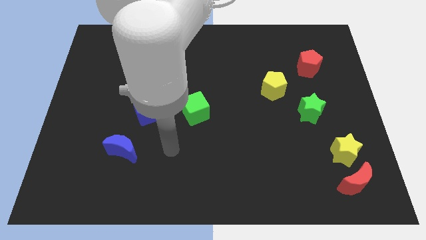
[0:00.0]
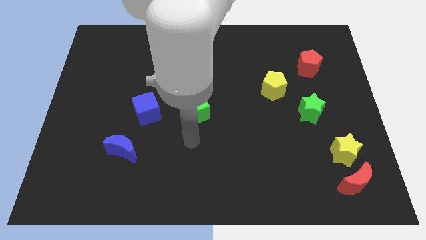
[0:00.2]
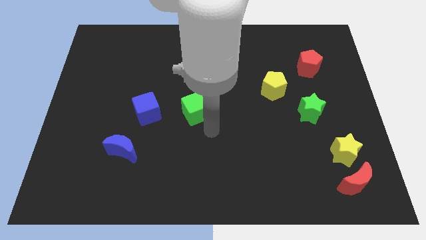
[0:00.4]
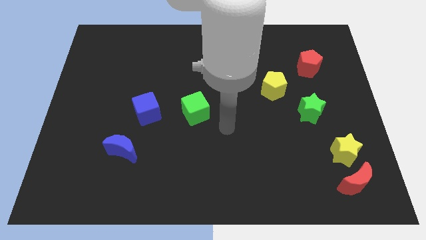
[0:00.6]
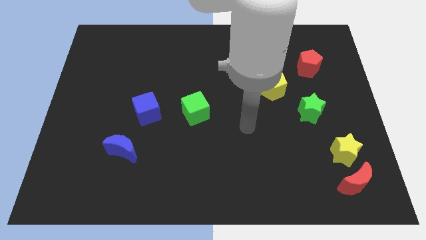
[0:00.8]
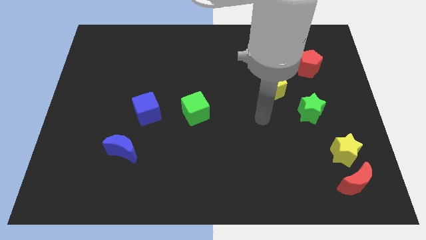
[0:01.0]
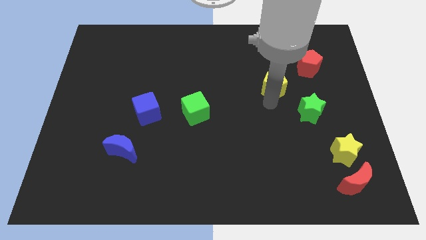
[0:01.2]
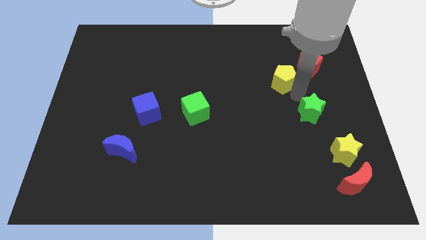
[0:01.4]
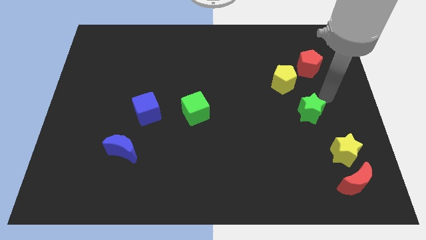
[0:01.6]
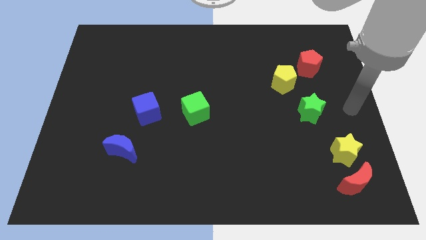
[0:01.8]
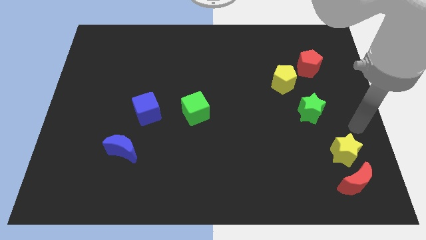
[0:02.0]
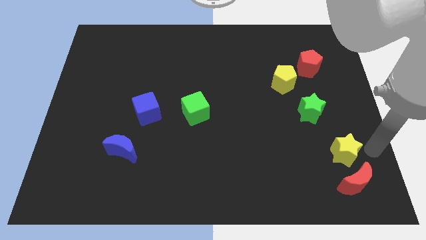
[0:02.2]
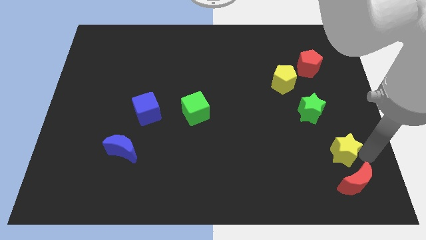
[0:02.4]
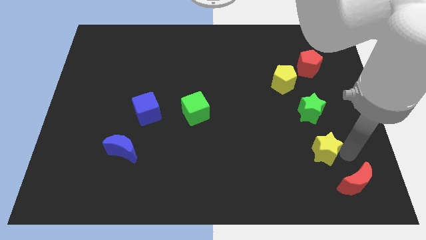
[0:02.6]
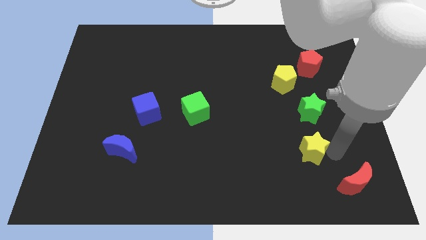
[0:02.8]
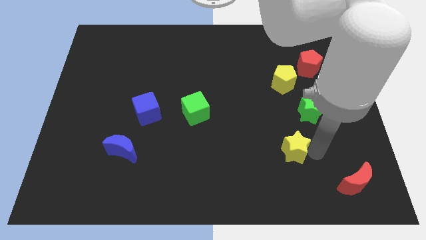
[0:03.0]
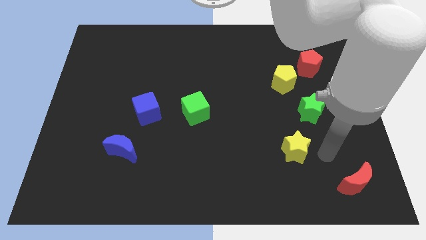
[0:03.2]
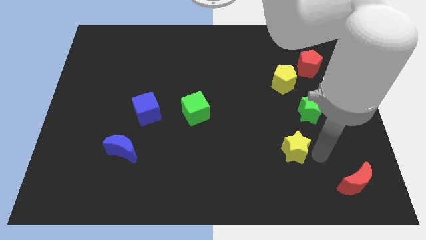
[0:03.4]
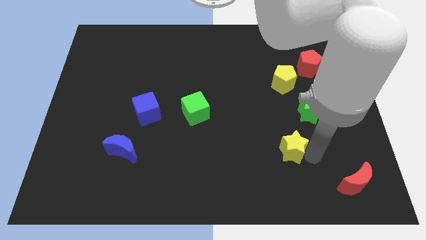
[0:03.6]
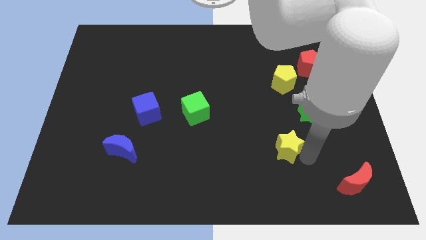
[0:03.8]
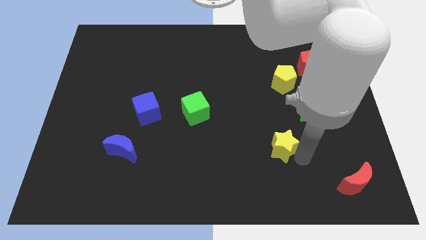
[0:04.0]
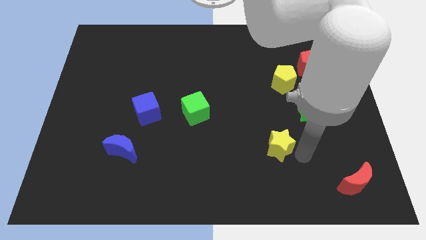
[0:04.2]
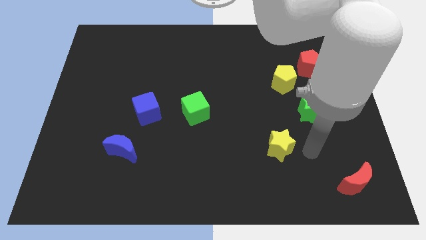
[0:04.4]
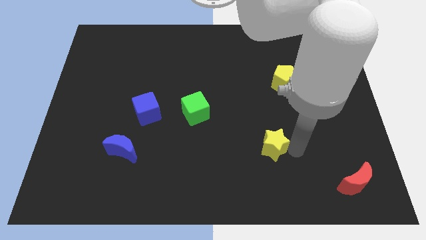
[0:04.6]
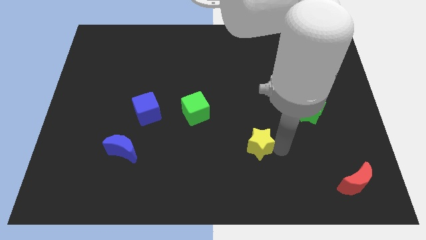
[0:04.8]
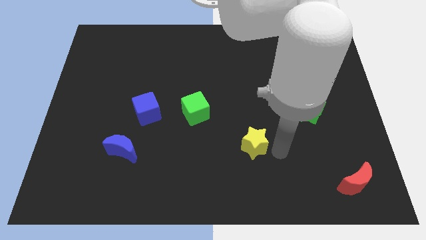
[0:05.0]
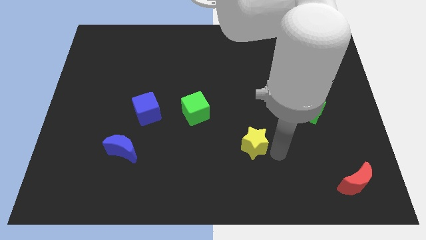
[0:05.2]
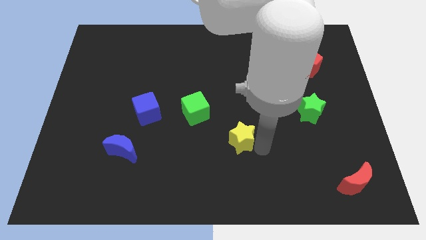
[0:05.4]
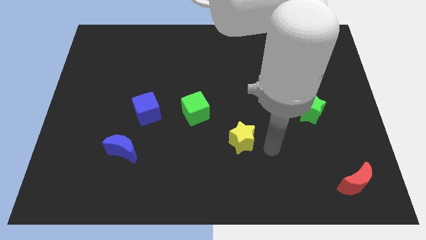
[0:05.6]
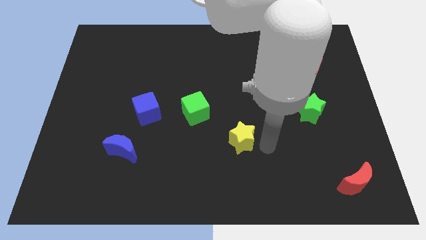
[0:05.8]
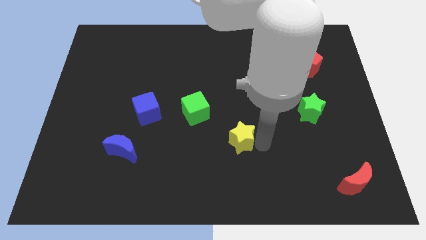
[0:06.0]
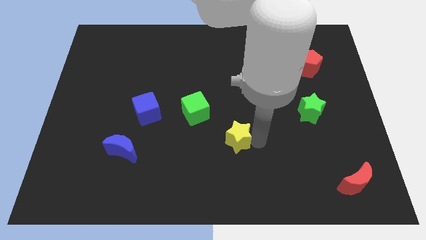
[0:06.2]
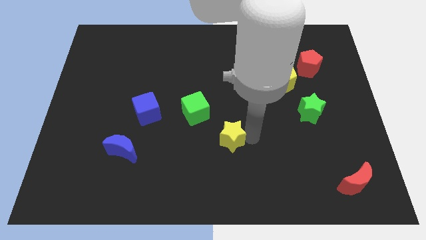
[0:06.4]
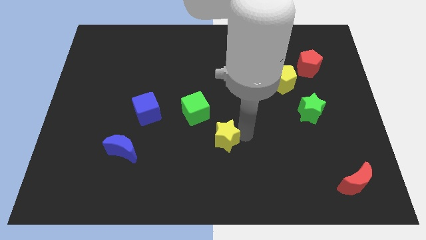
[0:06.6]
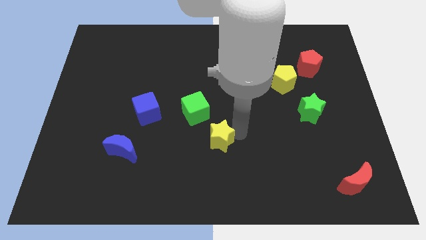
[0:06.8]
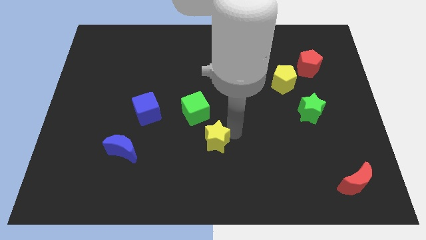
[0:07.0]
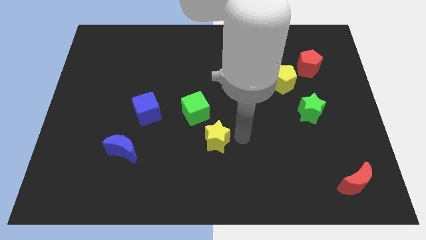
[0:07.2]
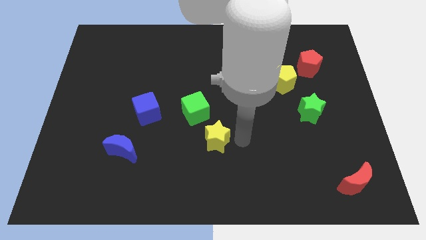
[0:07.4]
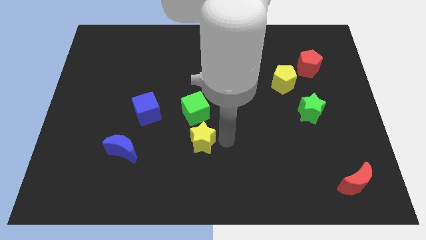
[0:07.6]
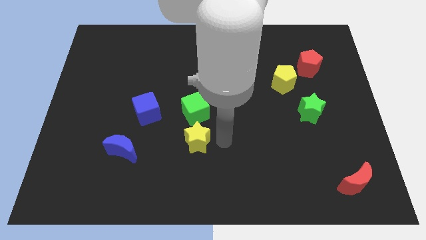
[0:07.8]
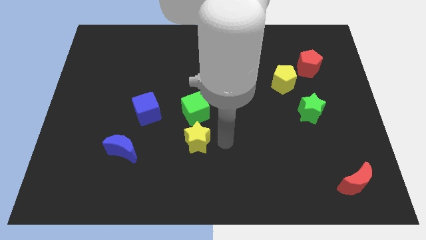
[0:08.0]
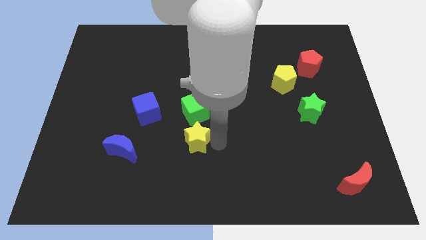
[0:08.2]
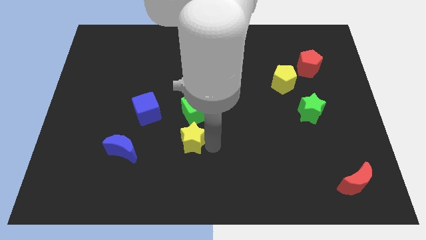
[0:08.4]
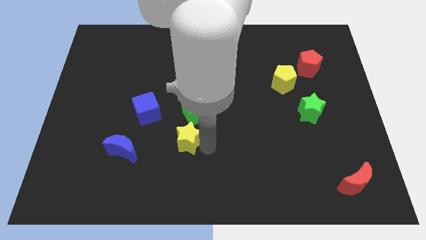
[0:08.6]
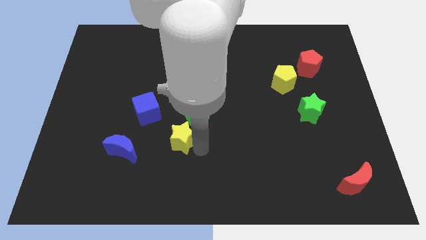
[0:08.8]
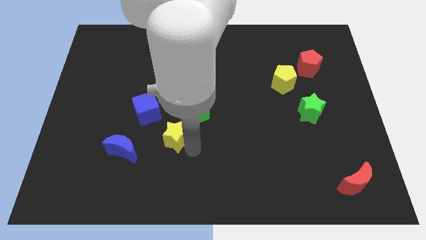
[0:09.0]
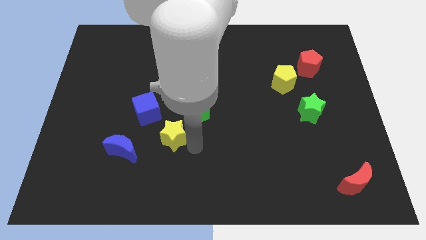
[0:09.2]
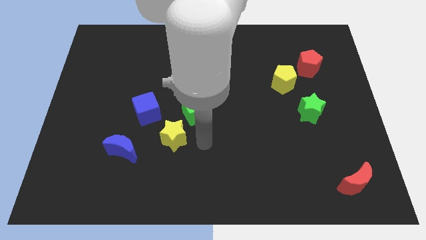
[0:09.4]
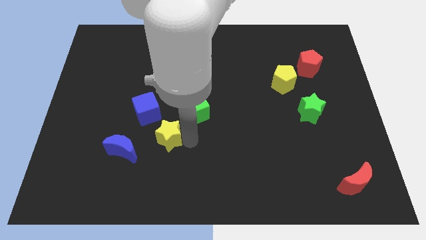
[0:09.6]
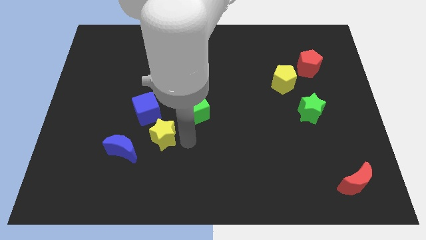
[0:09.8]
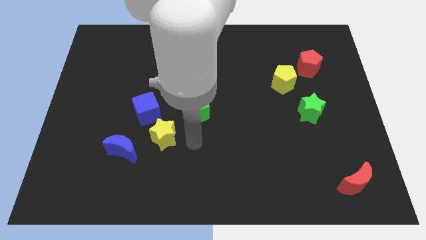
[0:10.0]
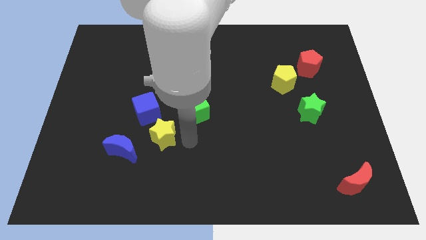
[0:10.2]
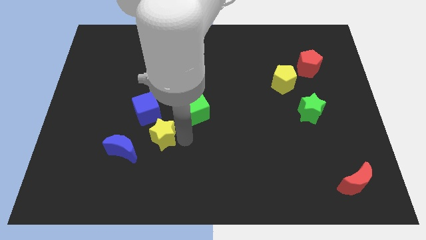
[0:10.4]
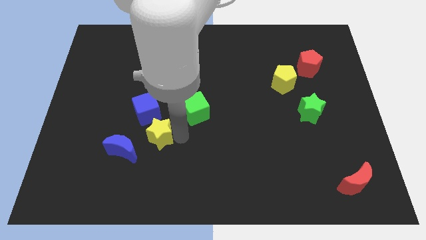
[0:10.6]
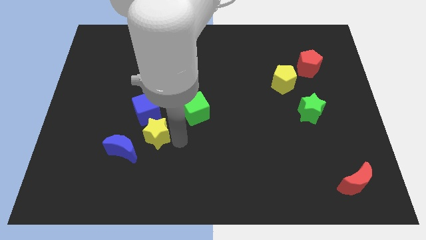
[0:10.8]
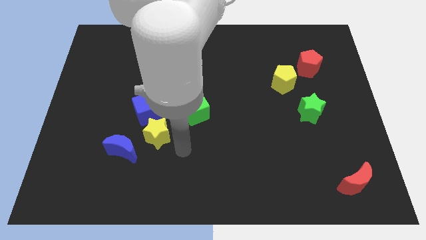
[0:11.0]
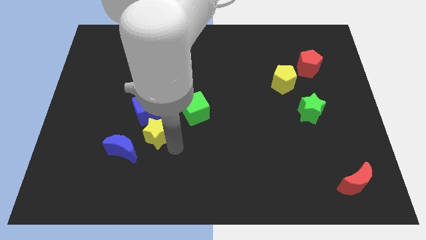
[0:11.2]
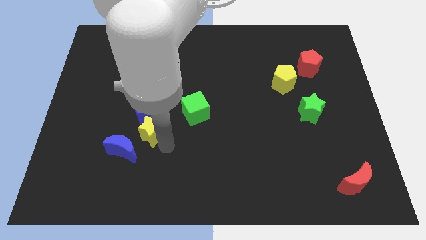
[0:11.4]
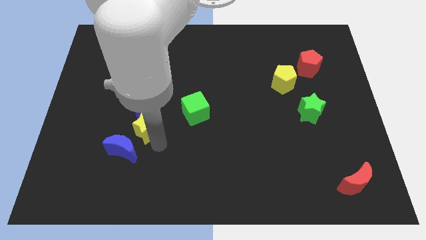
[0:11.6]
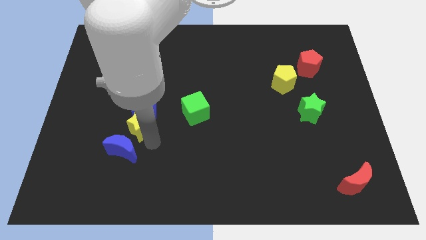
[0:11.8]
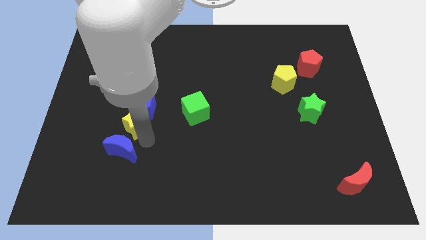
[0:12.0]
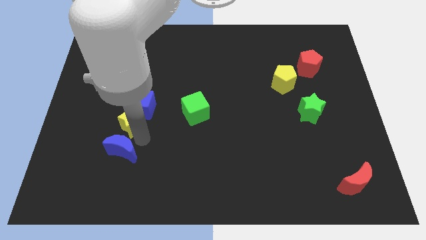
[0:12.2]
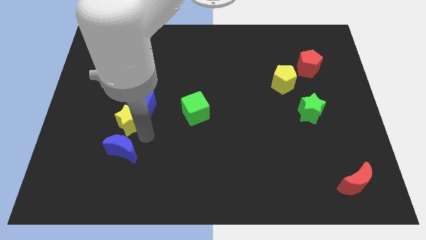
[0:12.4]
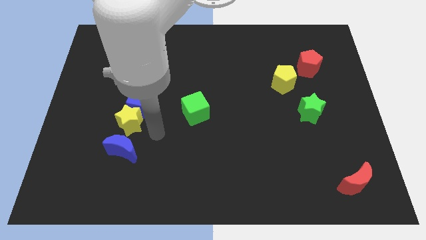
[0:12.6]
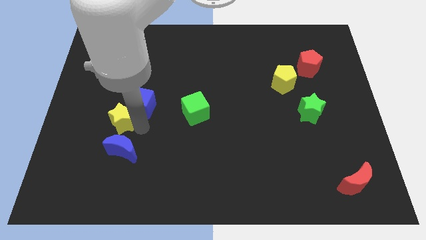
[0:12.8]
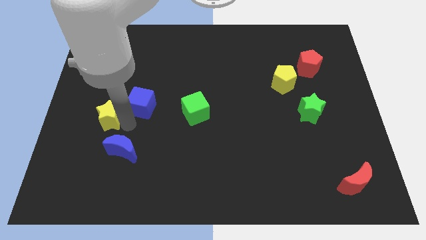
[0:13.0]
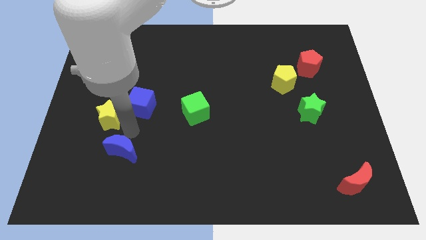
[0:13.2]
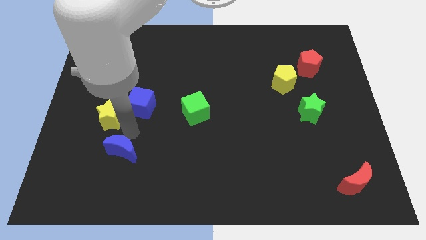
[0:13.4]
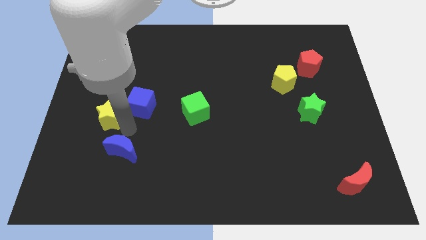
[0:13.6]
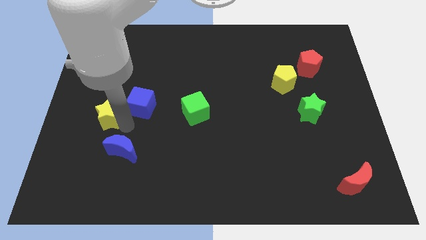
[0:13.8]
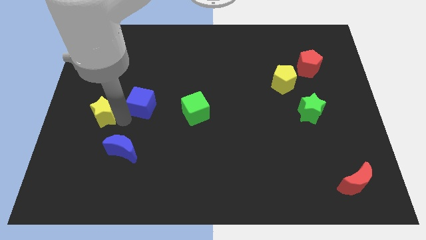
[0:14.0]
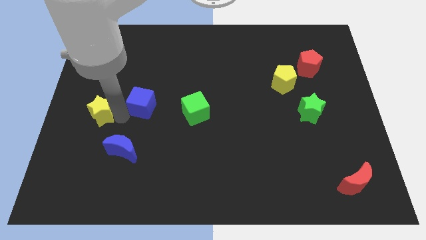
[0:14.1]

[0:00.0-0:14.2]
move the yellow star to the center left
